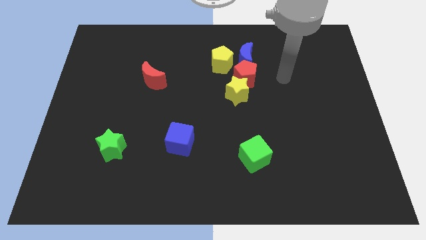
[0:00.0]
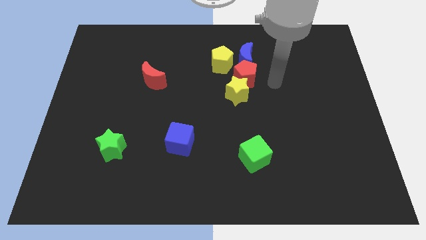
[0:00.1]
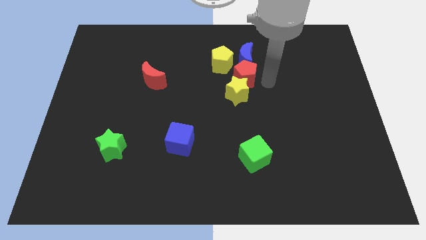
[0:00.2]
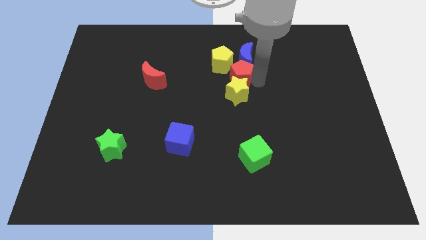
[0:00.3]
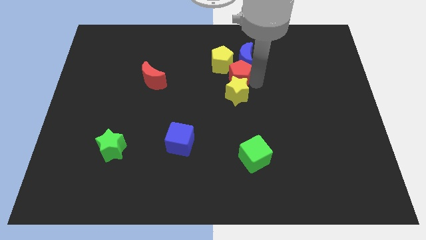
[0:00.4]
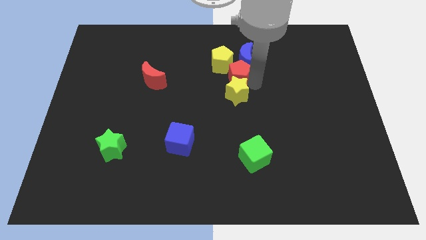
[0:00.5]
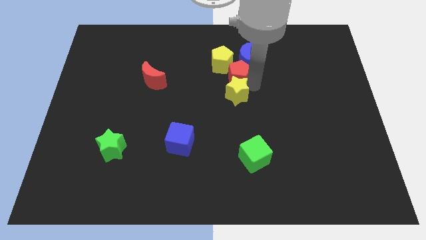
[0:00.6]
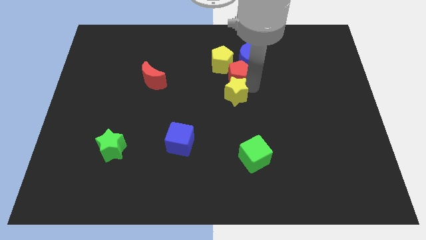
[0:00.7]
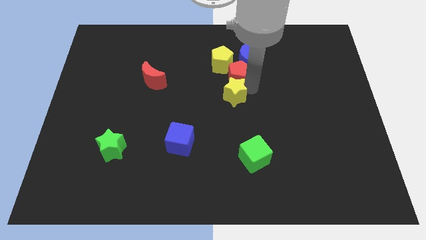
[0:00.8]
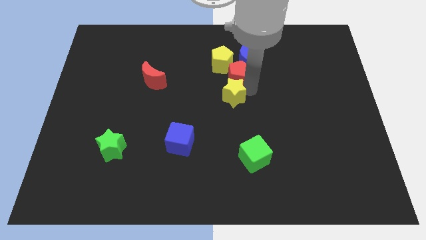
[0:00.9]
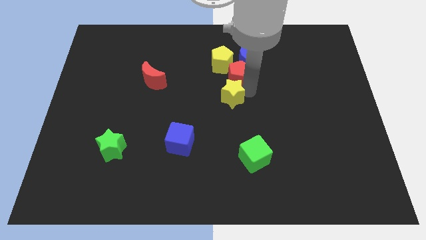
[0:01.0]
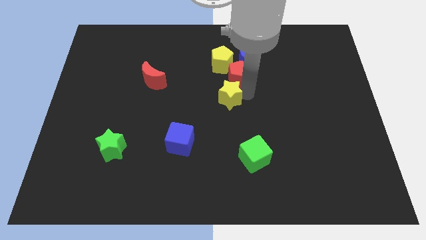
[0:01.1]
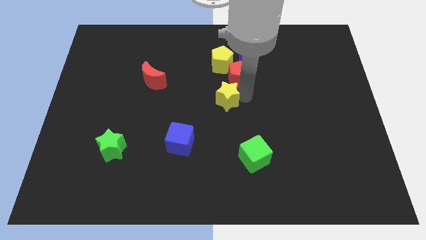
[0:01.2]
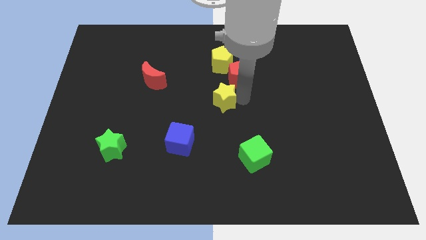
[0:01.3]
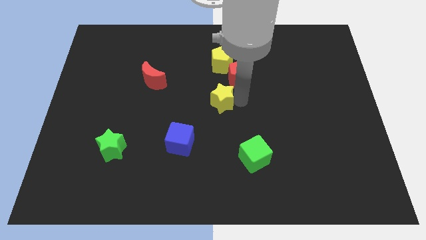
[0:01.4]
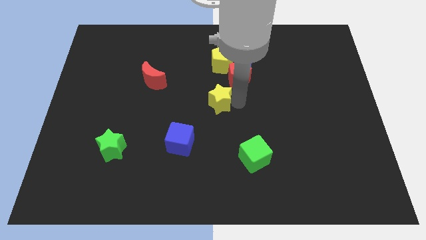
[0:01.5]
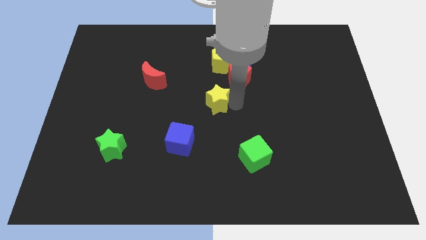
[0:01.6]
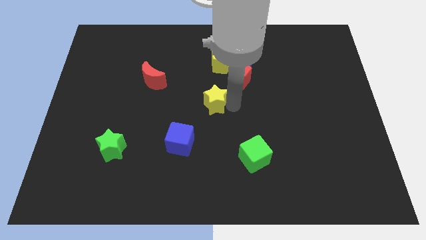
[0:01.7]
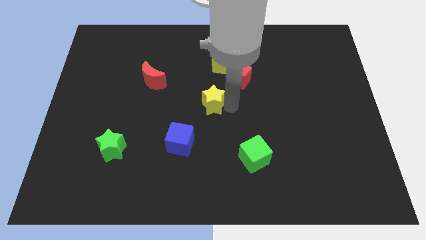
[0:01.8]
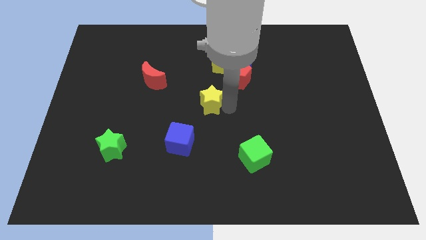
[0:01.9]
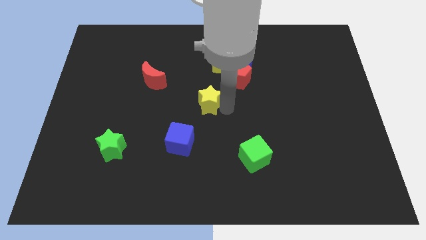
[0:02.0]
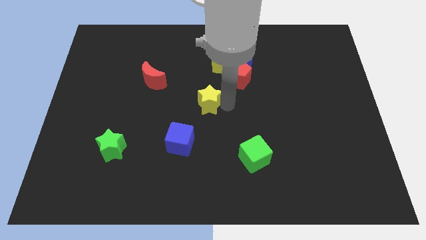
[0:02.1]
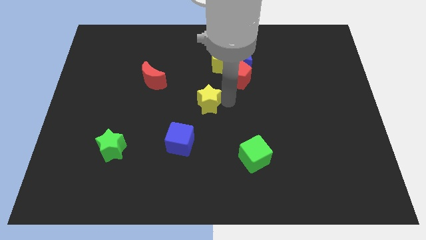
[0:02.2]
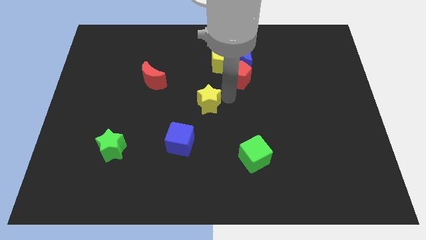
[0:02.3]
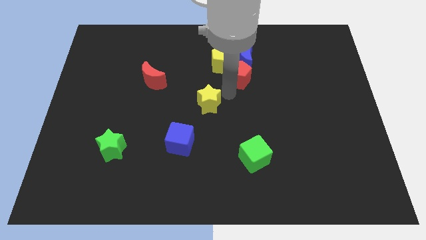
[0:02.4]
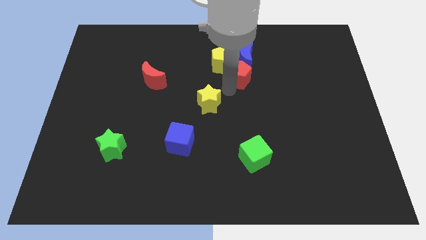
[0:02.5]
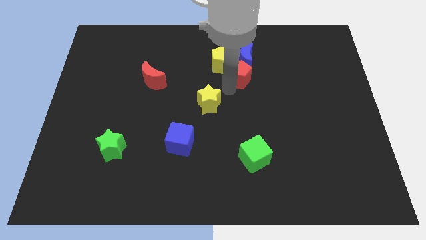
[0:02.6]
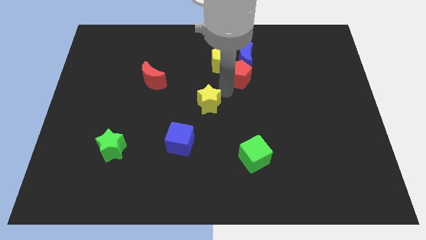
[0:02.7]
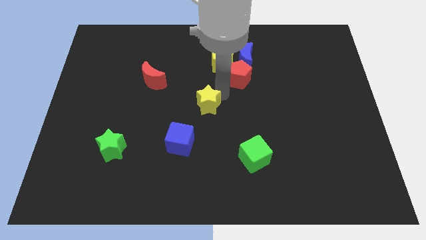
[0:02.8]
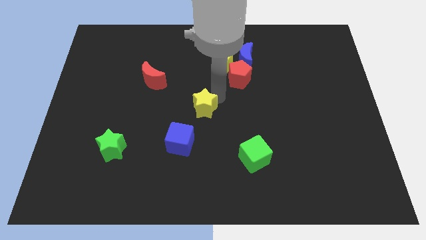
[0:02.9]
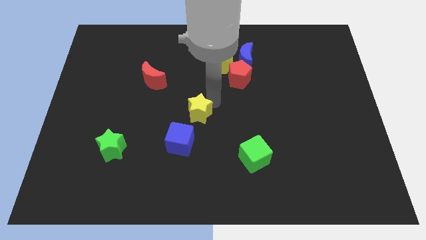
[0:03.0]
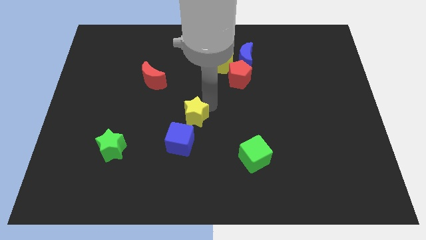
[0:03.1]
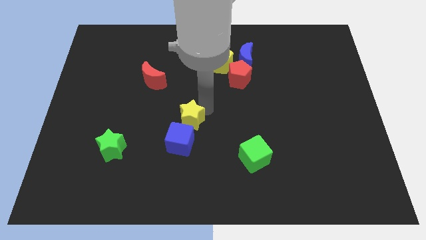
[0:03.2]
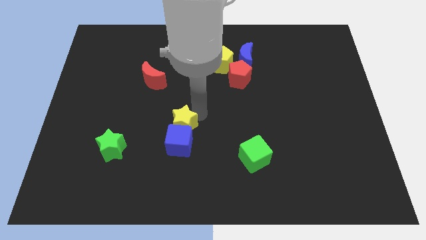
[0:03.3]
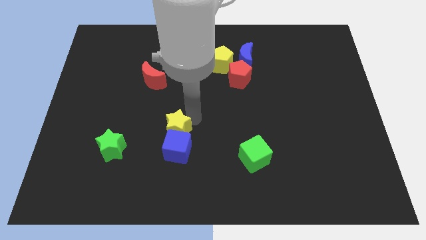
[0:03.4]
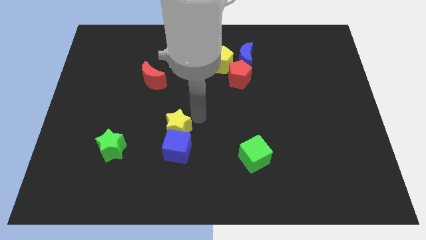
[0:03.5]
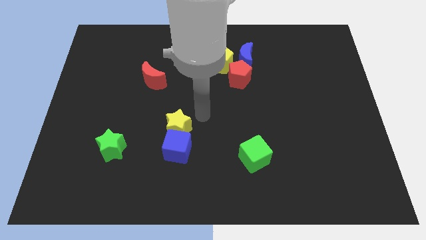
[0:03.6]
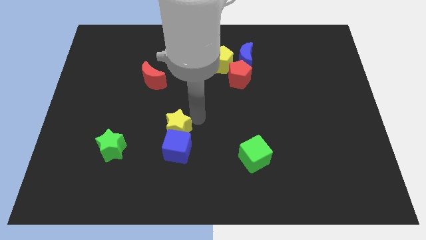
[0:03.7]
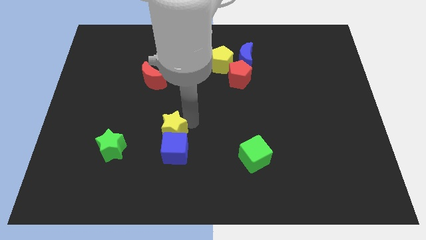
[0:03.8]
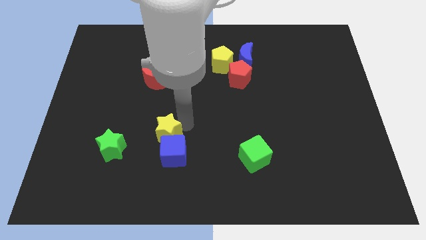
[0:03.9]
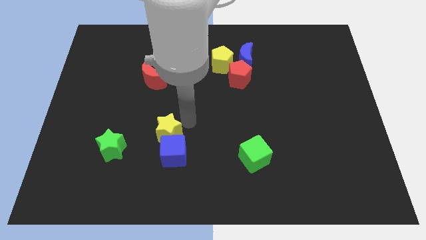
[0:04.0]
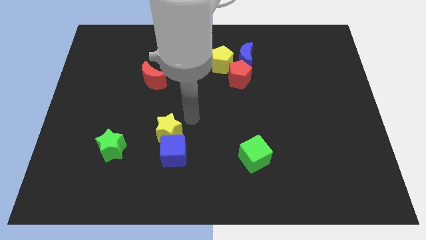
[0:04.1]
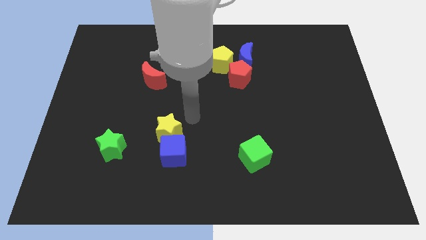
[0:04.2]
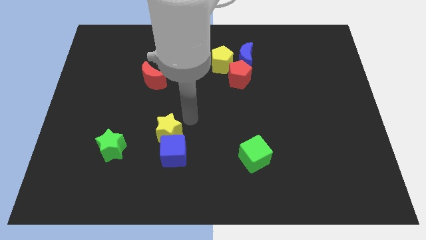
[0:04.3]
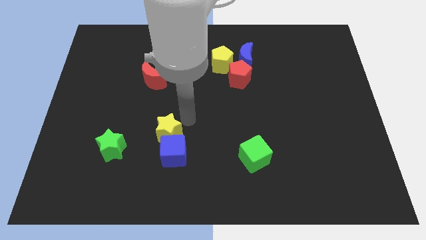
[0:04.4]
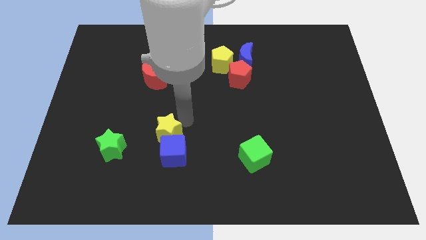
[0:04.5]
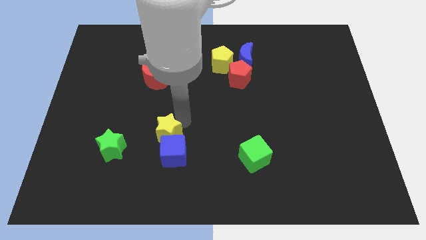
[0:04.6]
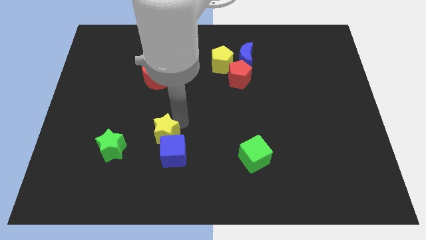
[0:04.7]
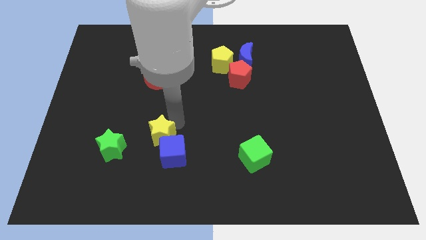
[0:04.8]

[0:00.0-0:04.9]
push the yellow star downwards and left

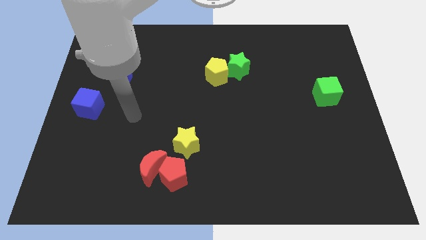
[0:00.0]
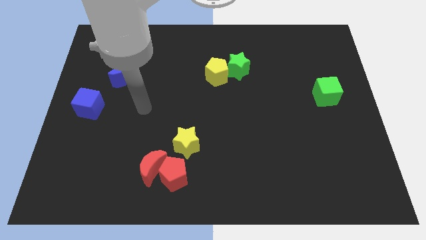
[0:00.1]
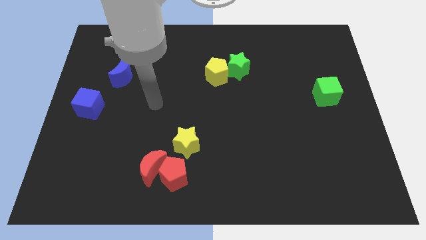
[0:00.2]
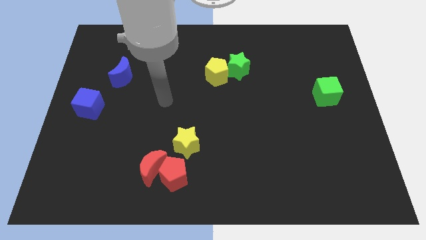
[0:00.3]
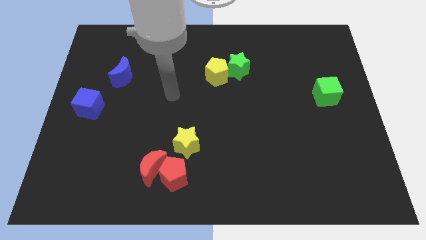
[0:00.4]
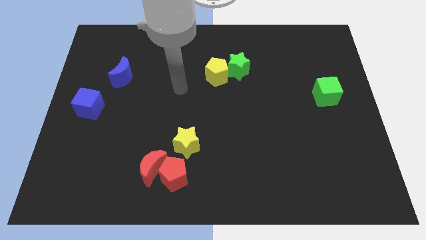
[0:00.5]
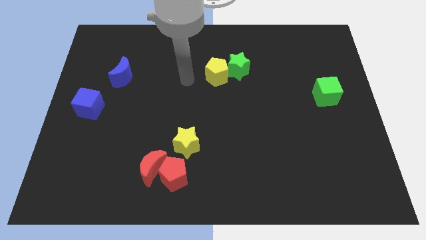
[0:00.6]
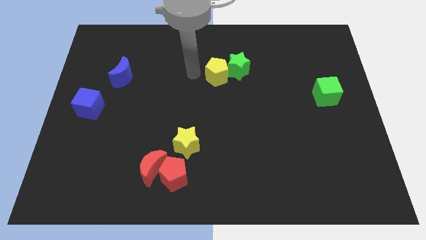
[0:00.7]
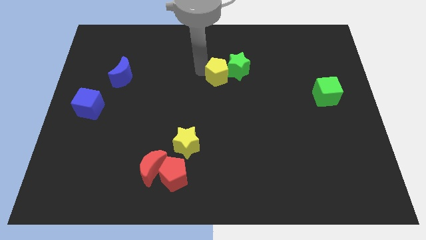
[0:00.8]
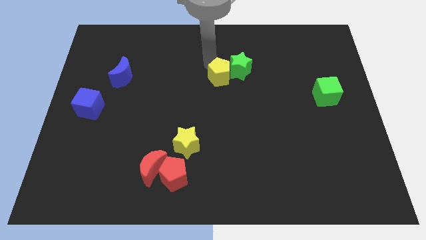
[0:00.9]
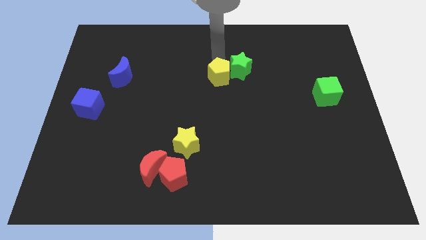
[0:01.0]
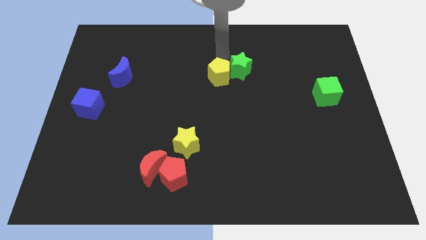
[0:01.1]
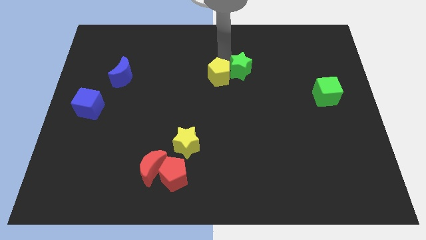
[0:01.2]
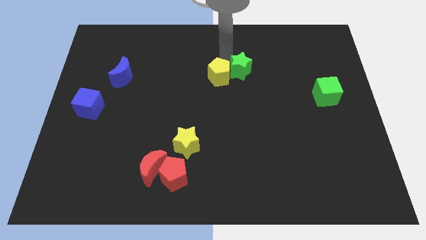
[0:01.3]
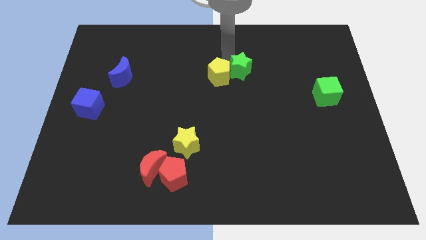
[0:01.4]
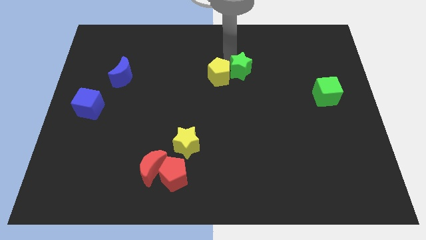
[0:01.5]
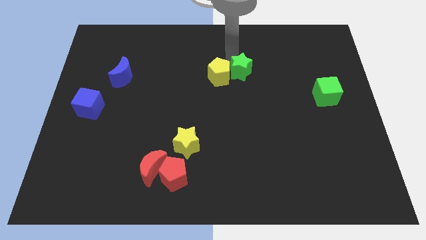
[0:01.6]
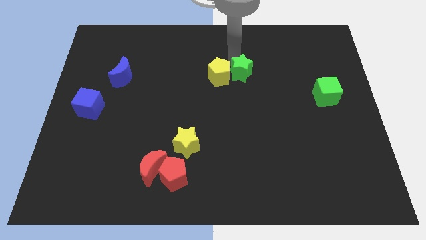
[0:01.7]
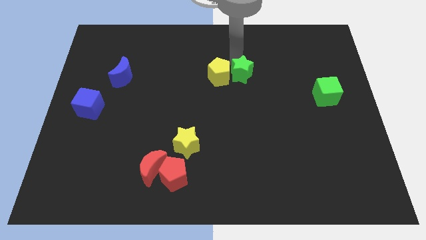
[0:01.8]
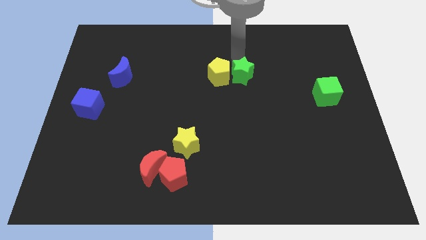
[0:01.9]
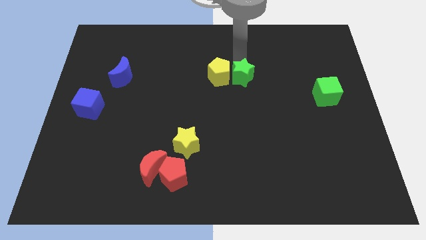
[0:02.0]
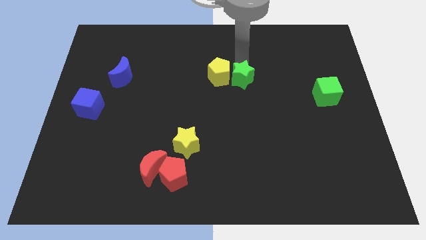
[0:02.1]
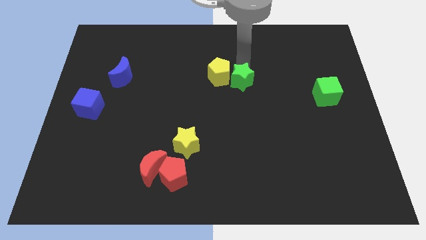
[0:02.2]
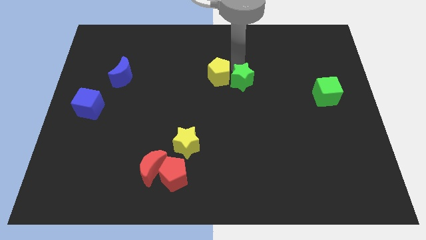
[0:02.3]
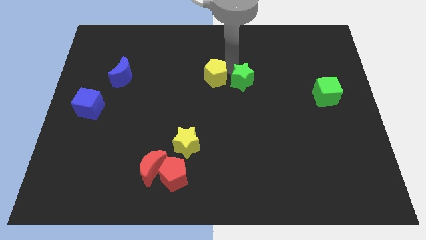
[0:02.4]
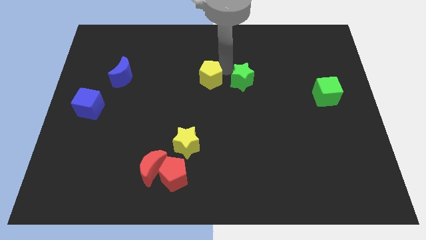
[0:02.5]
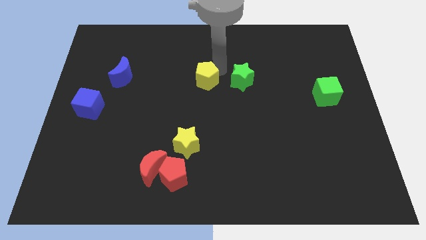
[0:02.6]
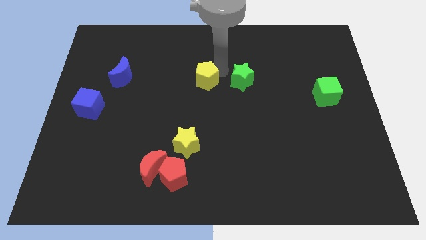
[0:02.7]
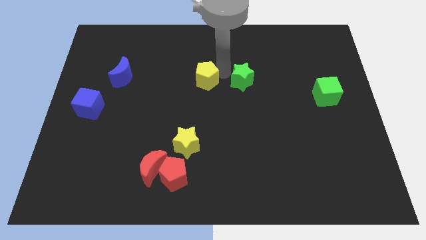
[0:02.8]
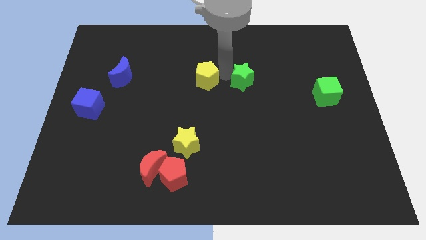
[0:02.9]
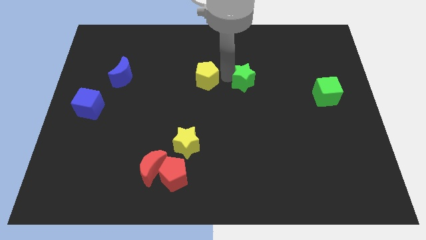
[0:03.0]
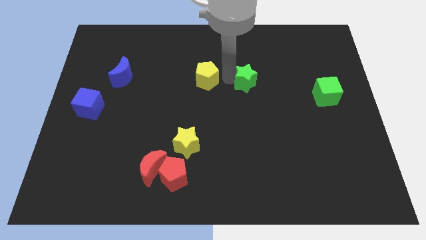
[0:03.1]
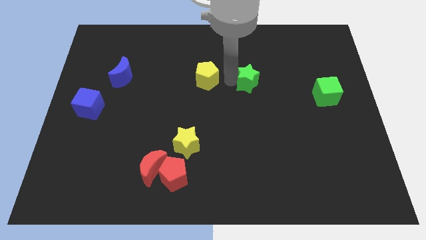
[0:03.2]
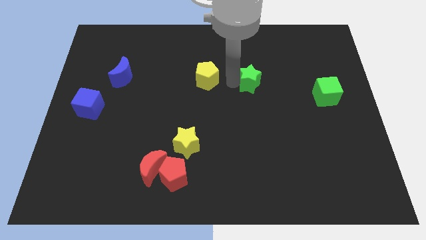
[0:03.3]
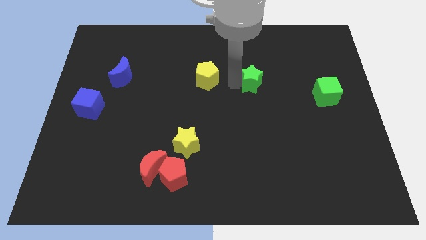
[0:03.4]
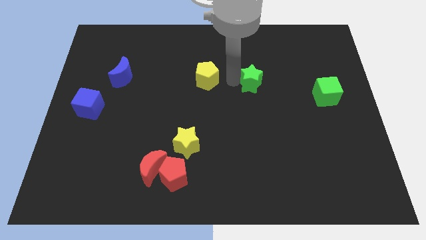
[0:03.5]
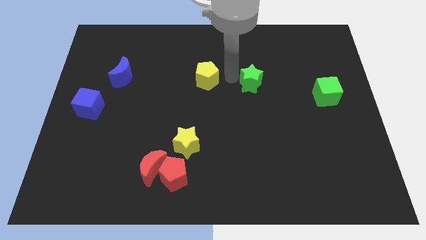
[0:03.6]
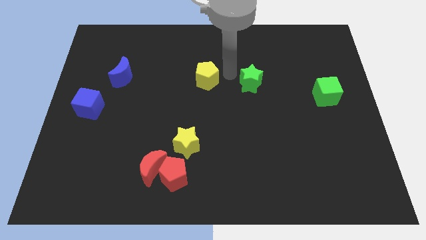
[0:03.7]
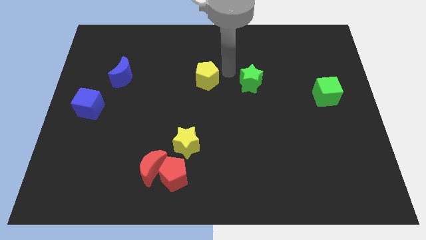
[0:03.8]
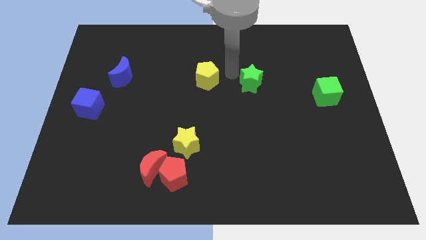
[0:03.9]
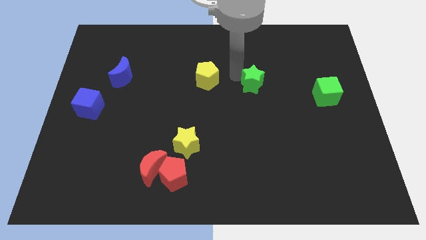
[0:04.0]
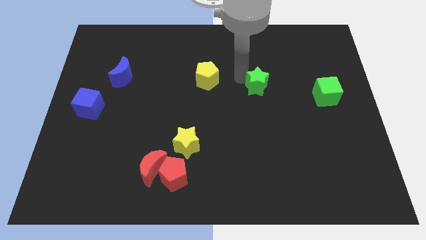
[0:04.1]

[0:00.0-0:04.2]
slide the green star down and then to the right a little bit
